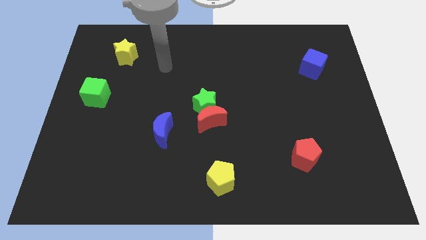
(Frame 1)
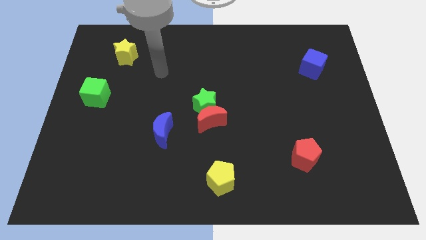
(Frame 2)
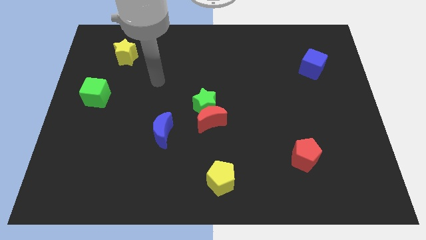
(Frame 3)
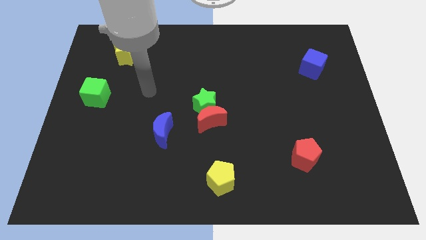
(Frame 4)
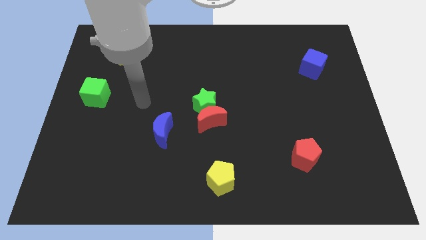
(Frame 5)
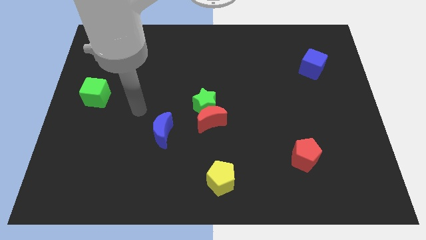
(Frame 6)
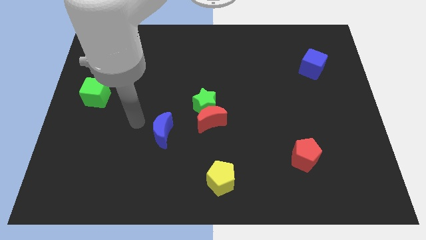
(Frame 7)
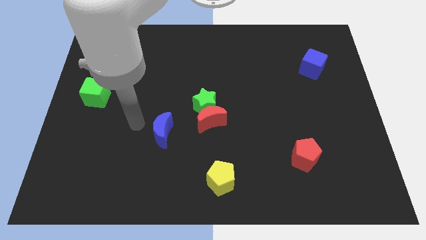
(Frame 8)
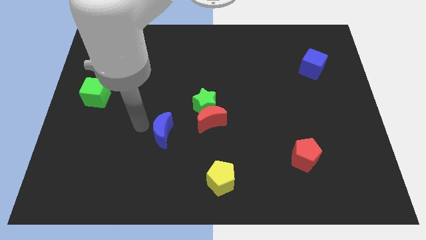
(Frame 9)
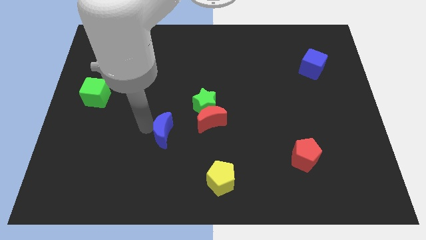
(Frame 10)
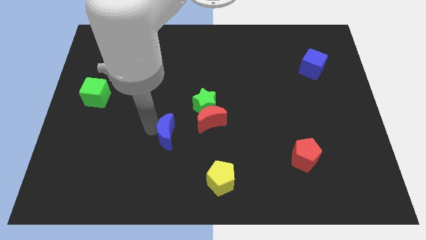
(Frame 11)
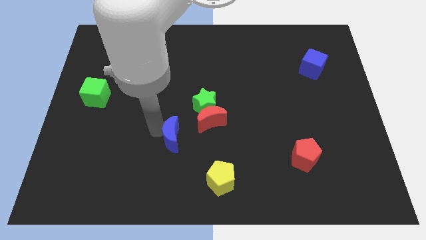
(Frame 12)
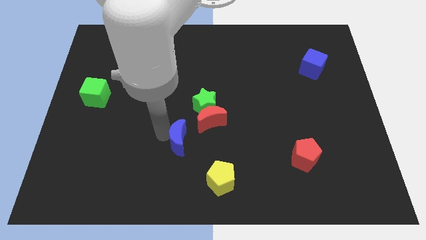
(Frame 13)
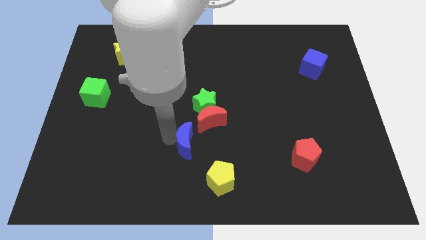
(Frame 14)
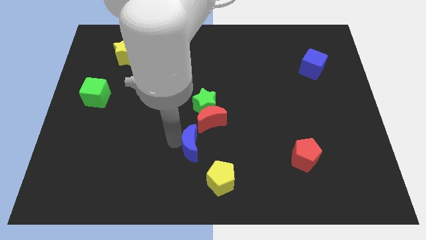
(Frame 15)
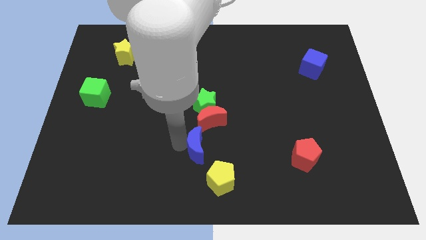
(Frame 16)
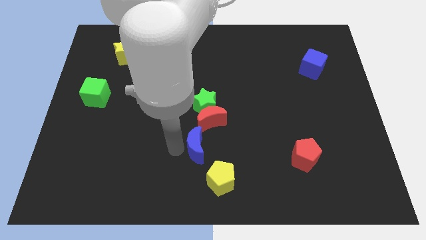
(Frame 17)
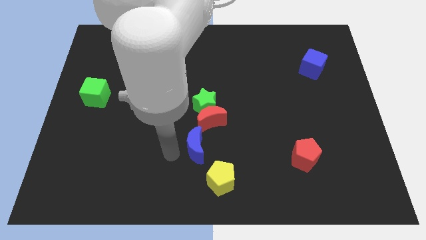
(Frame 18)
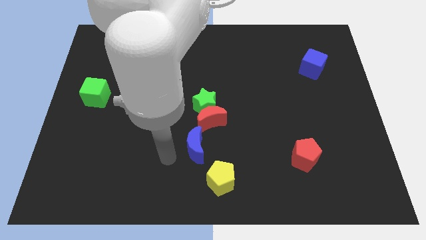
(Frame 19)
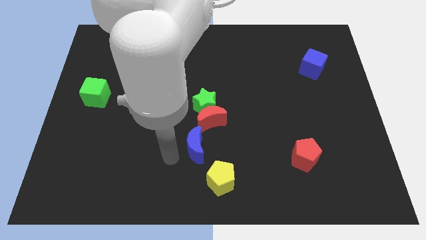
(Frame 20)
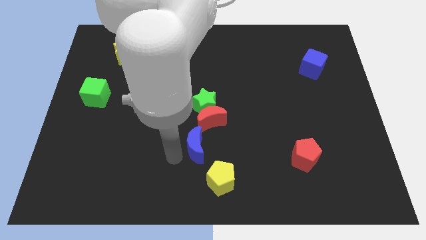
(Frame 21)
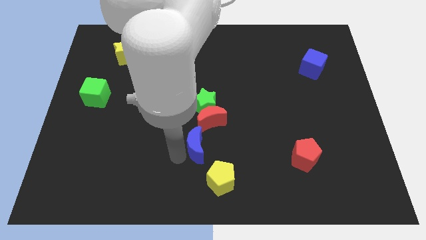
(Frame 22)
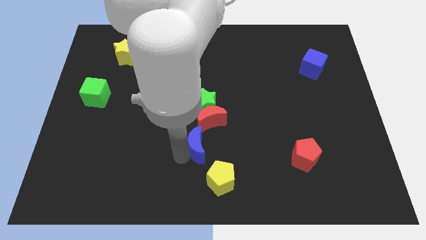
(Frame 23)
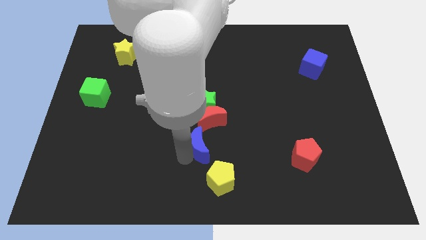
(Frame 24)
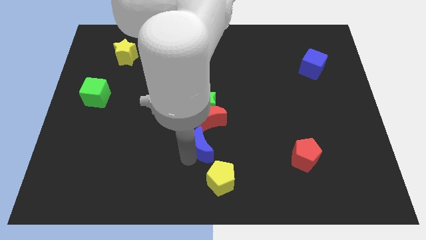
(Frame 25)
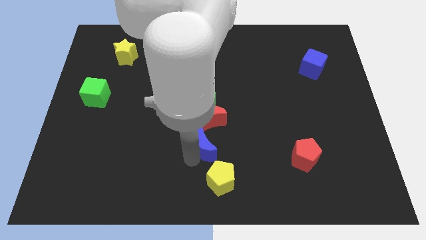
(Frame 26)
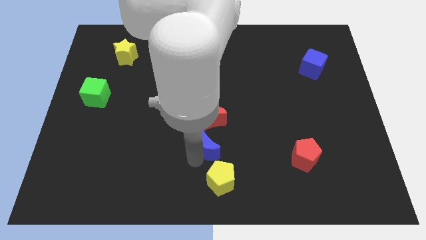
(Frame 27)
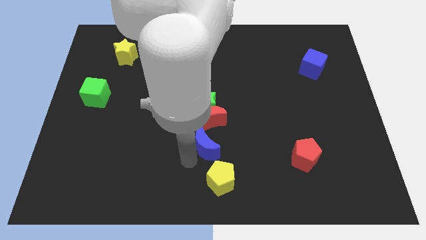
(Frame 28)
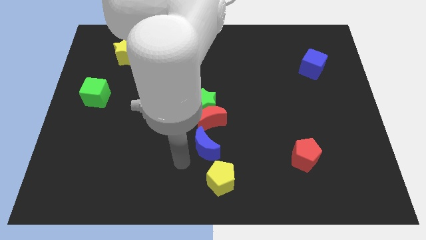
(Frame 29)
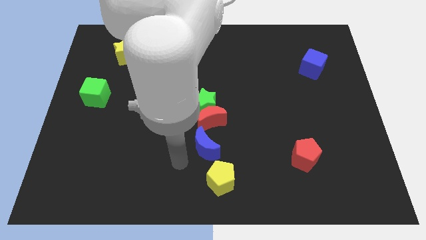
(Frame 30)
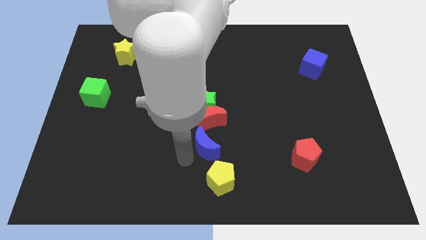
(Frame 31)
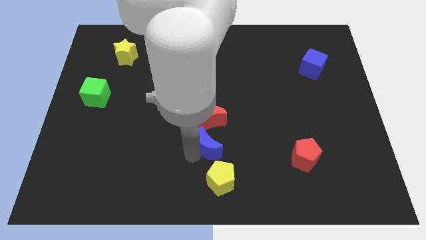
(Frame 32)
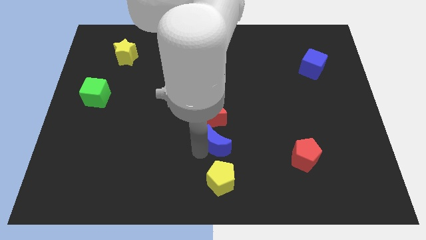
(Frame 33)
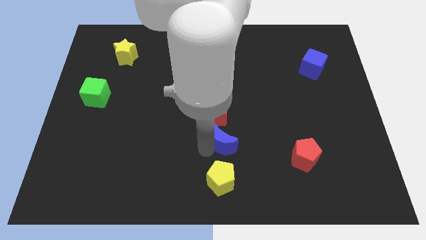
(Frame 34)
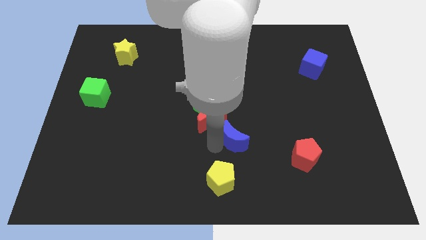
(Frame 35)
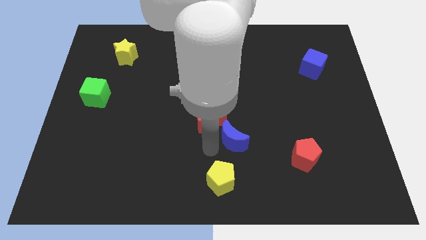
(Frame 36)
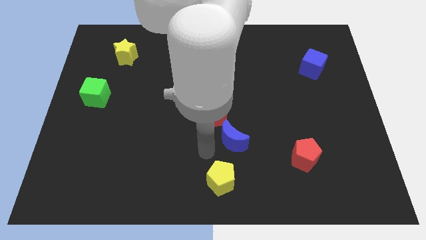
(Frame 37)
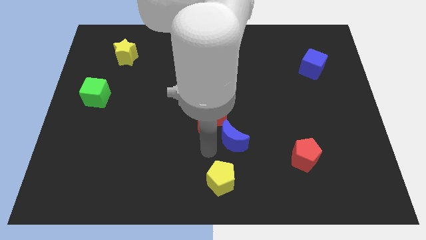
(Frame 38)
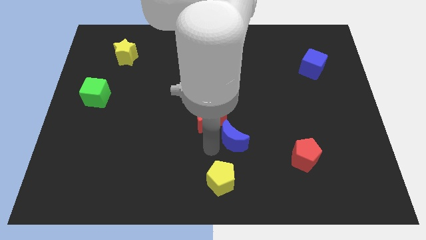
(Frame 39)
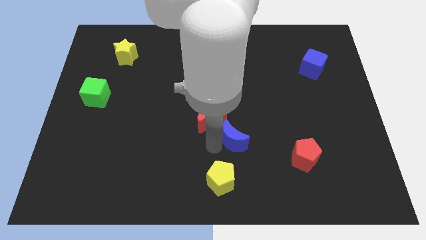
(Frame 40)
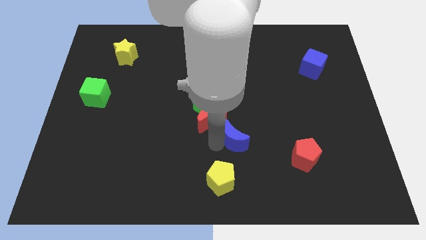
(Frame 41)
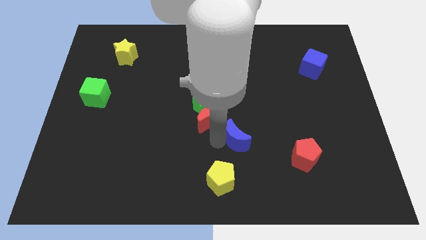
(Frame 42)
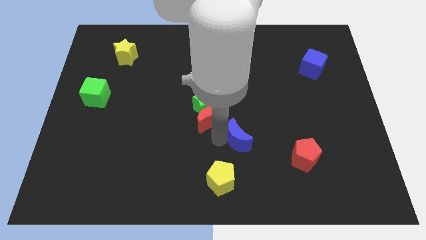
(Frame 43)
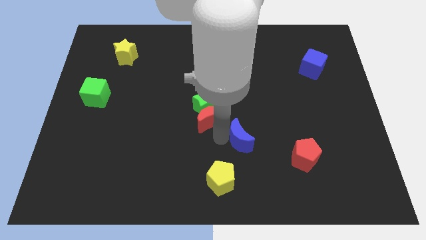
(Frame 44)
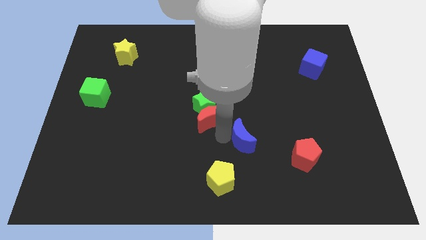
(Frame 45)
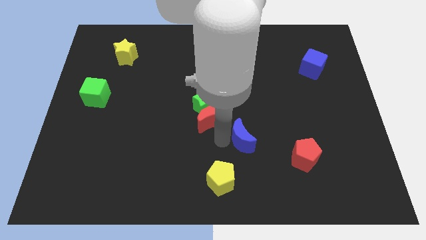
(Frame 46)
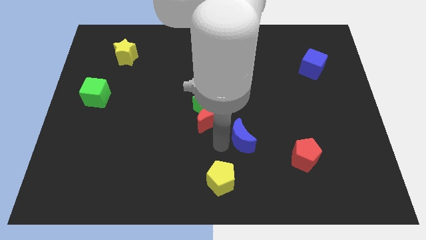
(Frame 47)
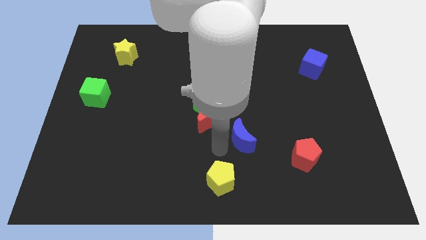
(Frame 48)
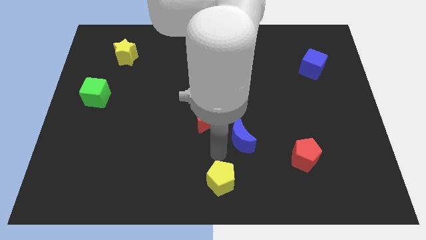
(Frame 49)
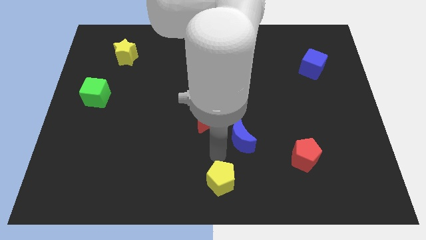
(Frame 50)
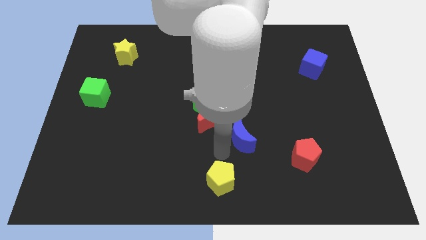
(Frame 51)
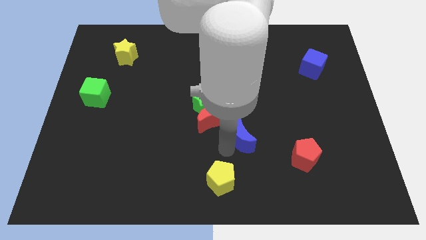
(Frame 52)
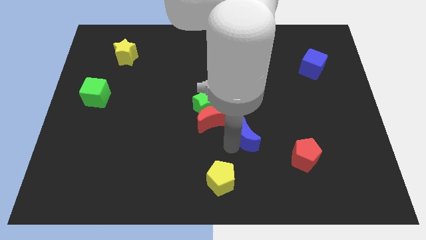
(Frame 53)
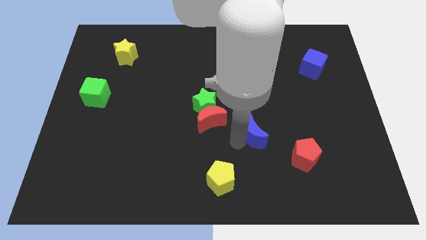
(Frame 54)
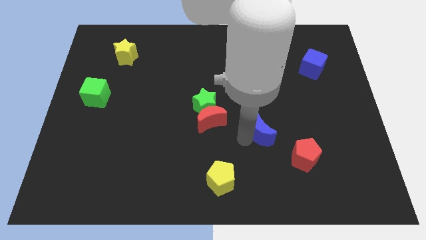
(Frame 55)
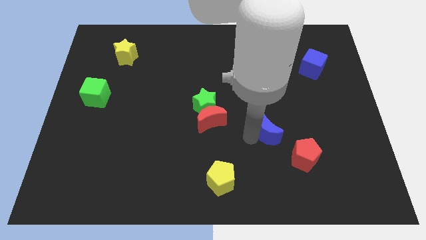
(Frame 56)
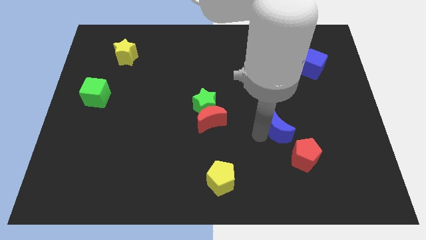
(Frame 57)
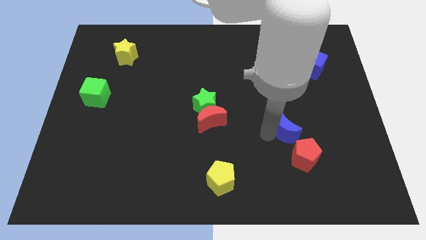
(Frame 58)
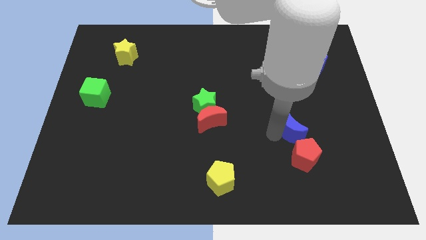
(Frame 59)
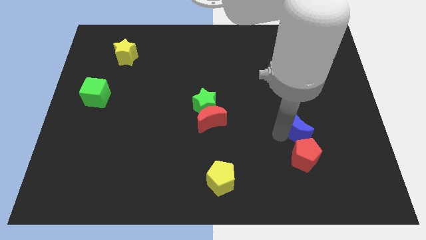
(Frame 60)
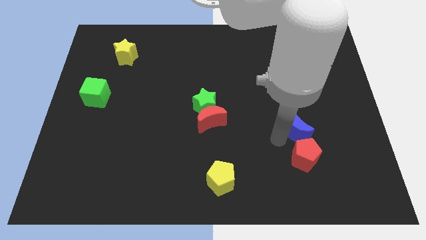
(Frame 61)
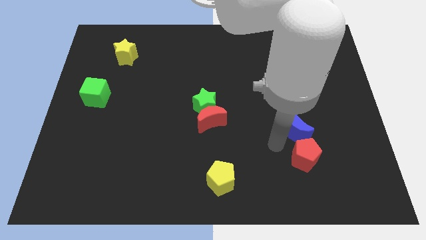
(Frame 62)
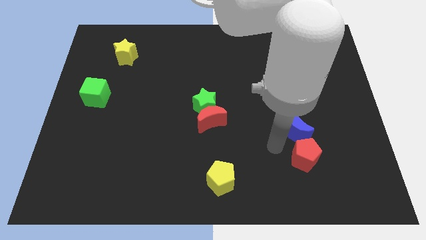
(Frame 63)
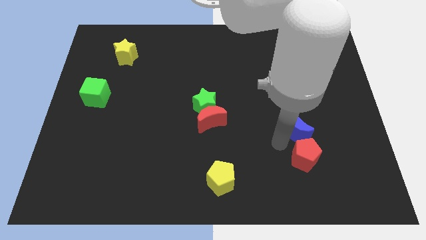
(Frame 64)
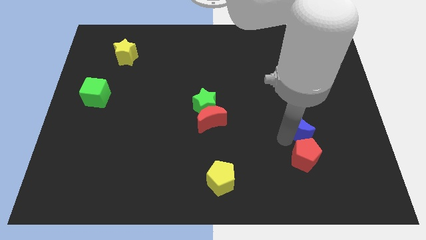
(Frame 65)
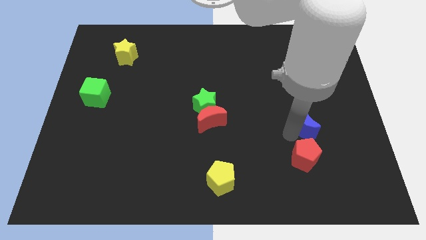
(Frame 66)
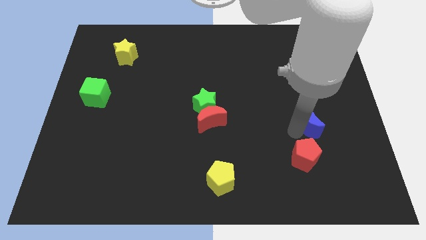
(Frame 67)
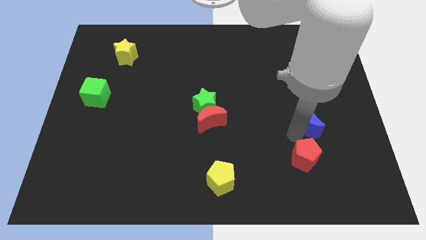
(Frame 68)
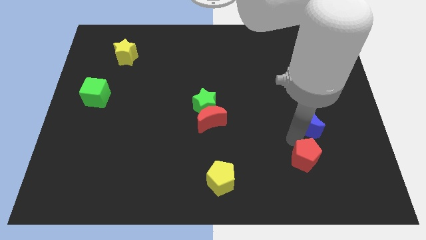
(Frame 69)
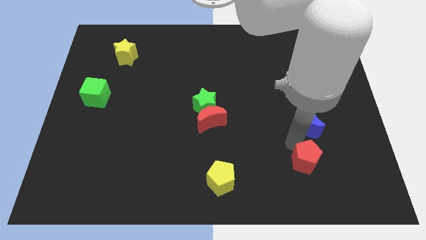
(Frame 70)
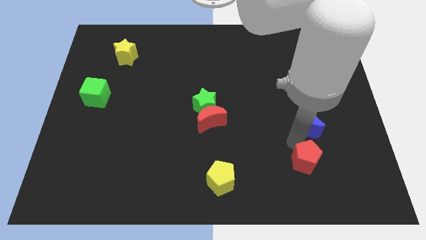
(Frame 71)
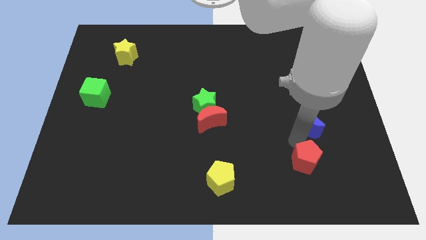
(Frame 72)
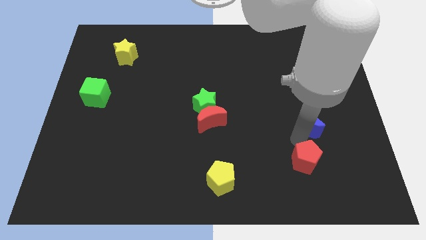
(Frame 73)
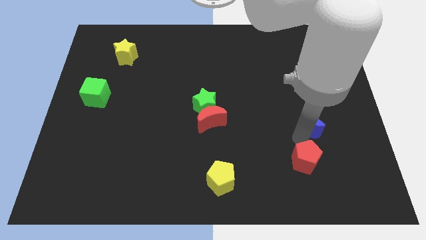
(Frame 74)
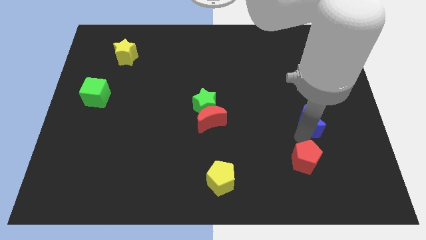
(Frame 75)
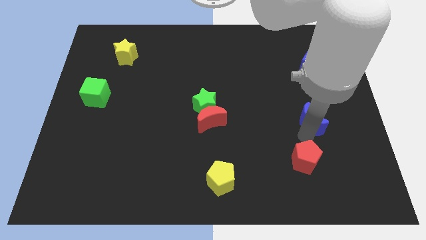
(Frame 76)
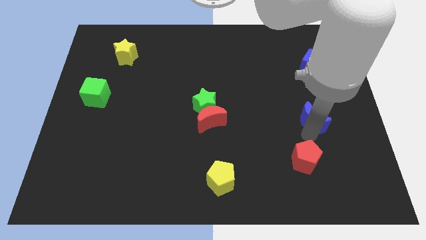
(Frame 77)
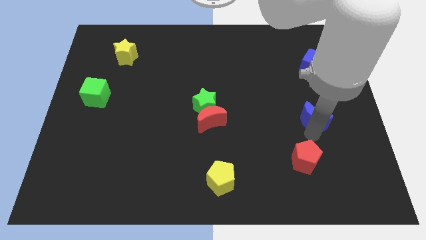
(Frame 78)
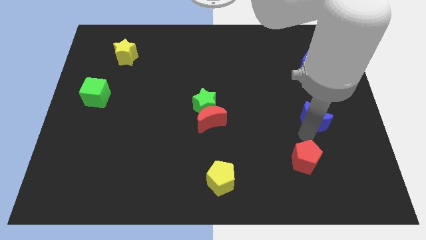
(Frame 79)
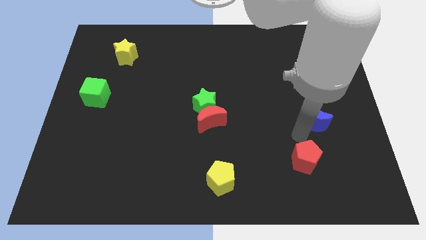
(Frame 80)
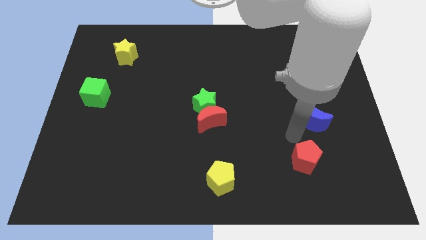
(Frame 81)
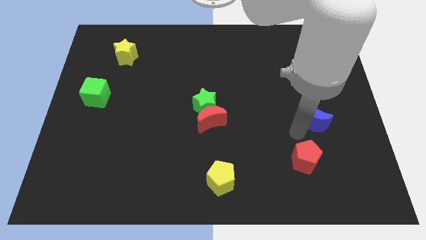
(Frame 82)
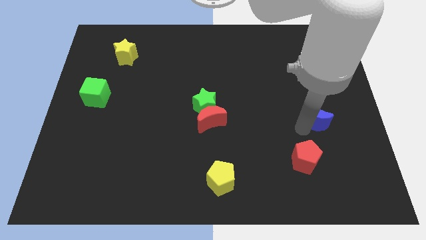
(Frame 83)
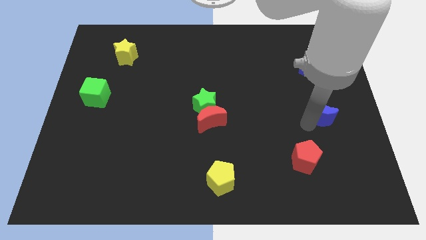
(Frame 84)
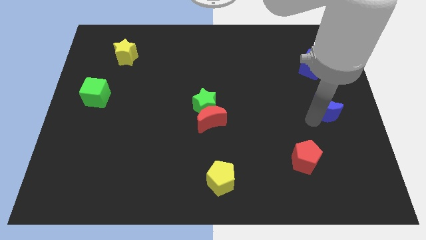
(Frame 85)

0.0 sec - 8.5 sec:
push the blue moon to the right side of the board
